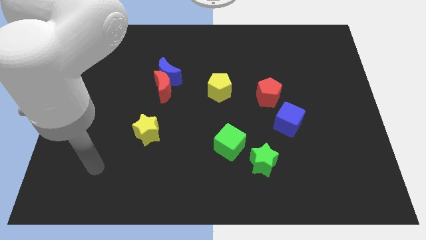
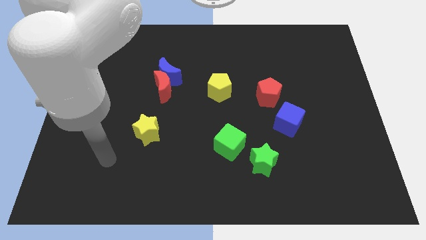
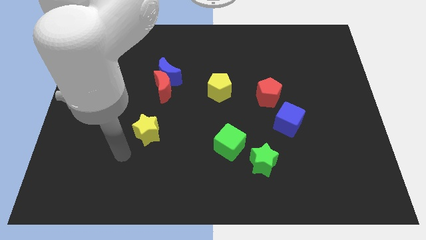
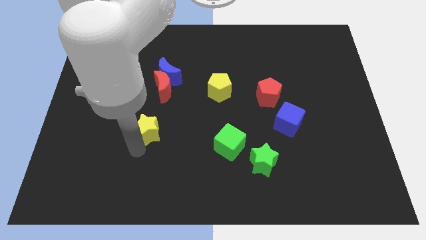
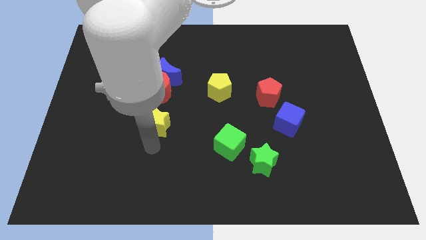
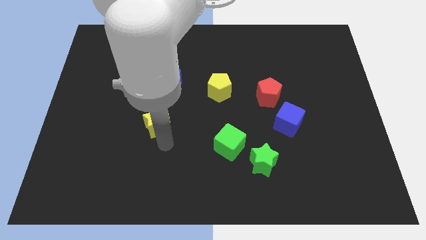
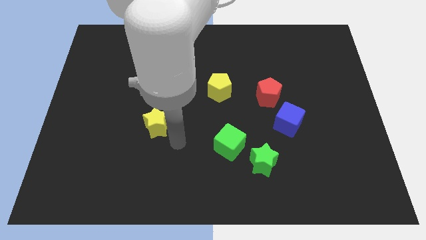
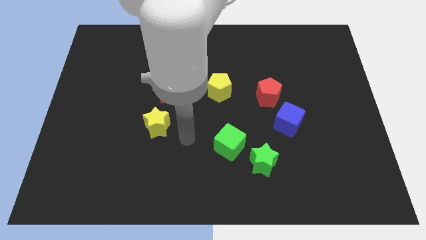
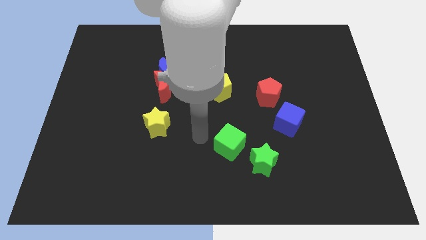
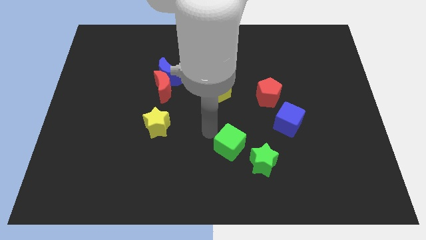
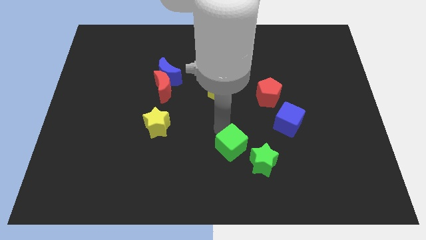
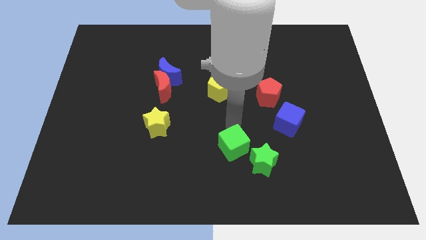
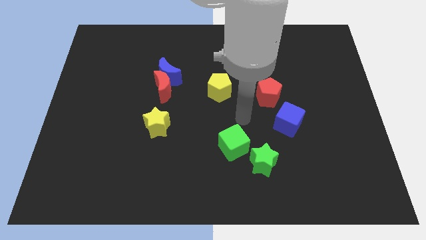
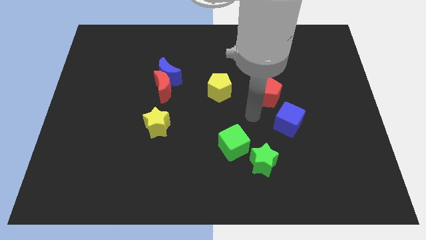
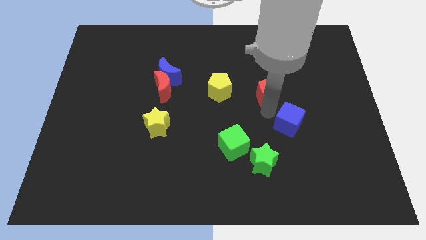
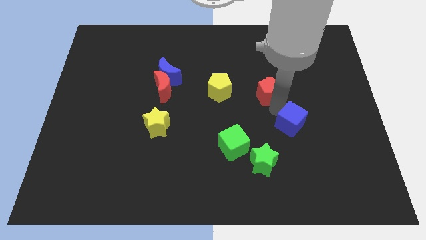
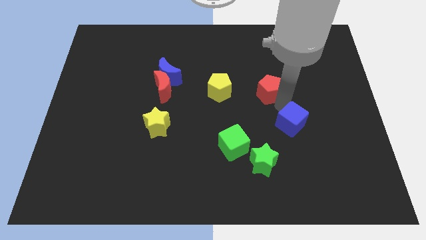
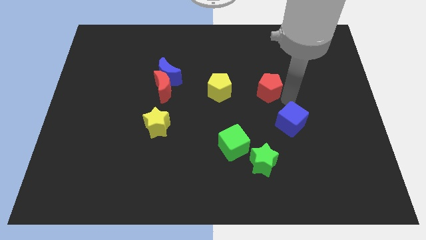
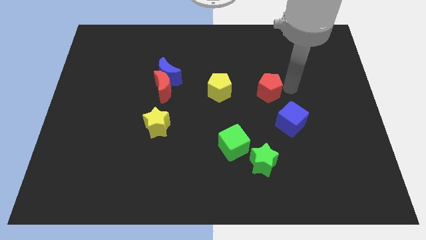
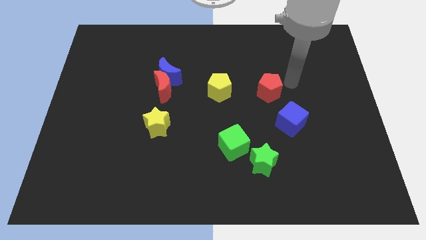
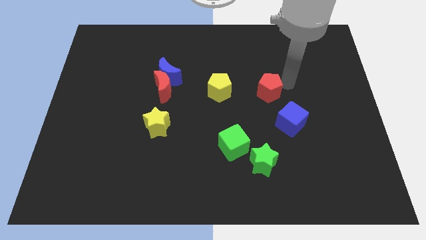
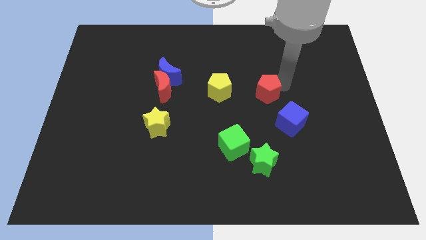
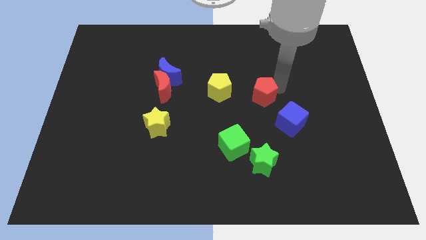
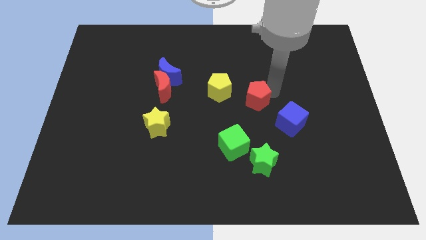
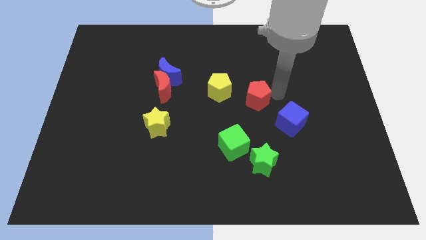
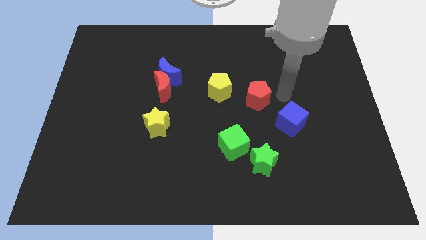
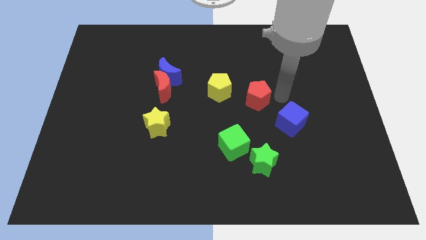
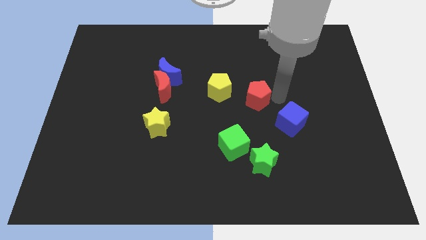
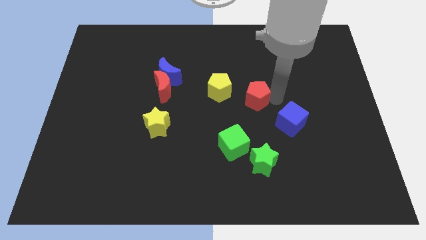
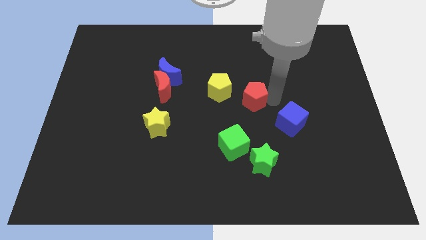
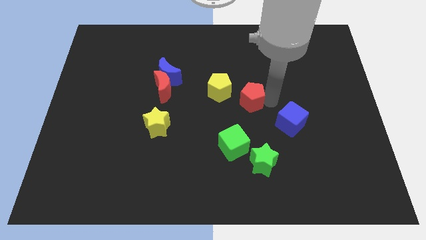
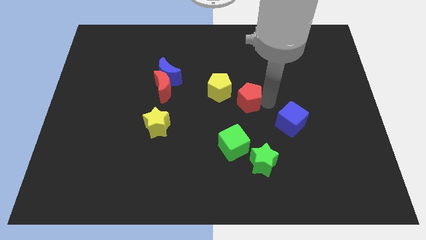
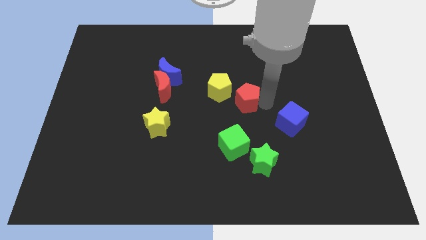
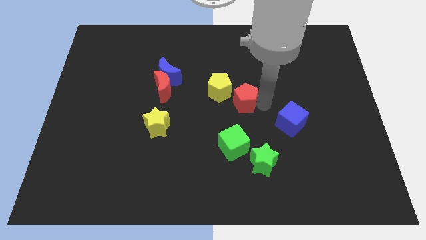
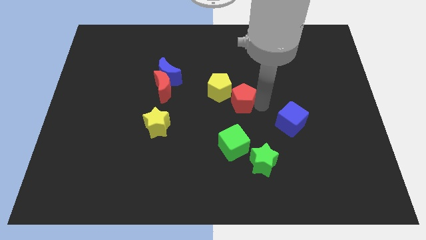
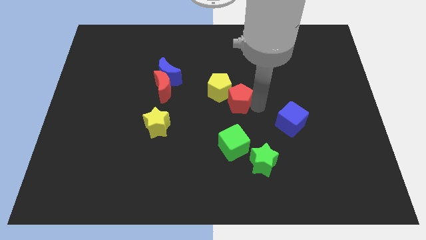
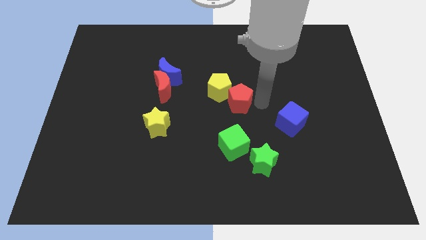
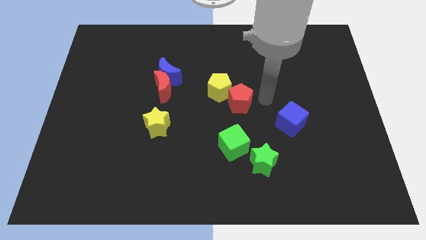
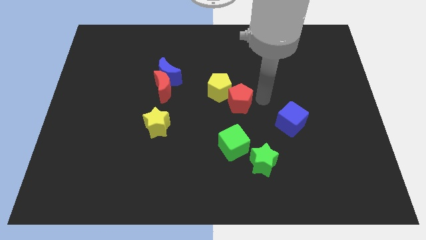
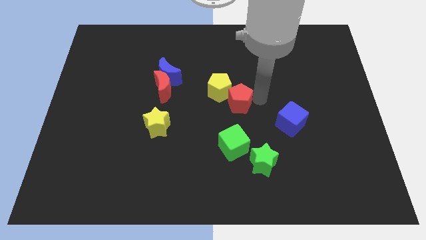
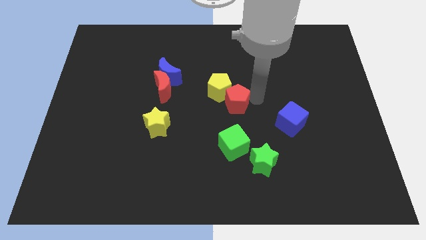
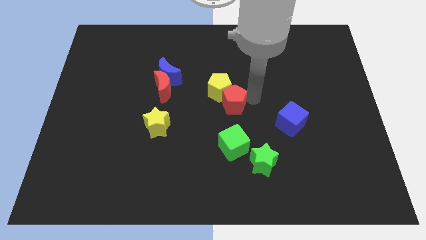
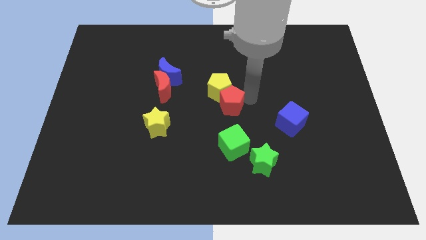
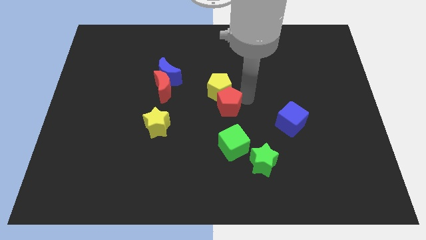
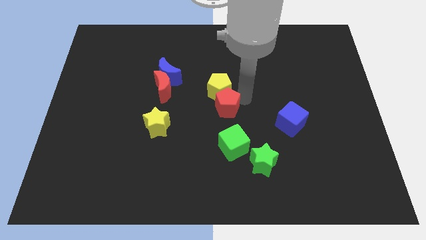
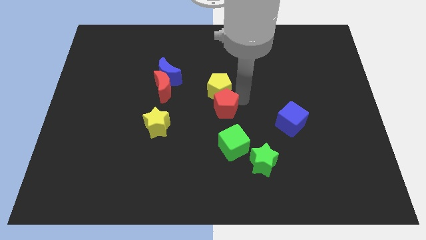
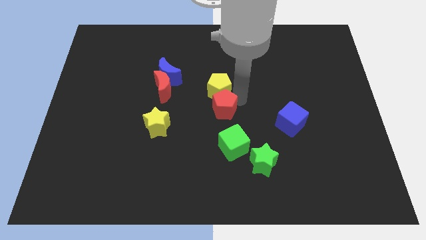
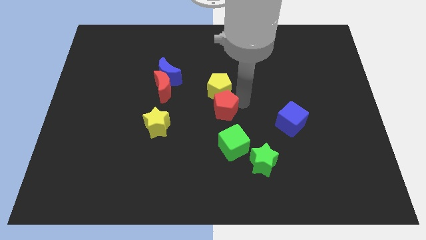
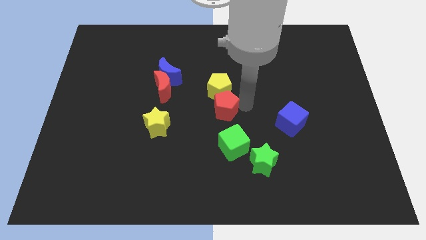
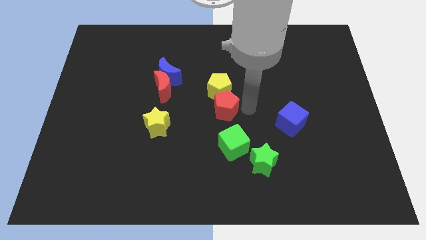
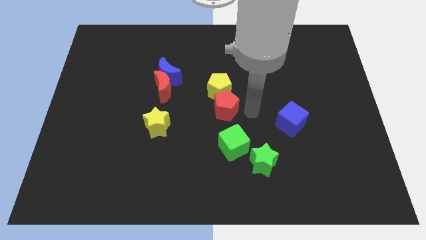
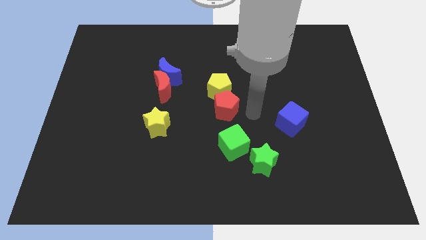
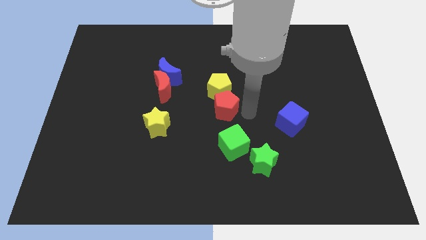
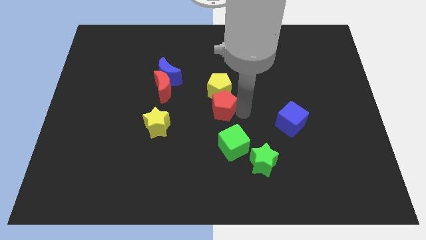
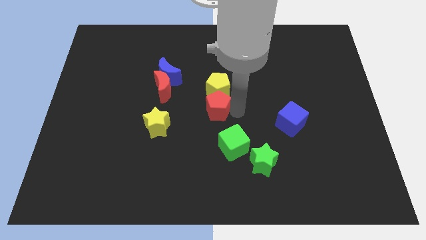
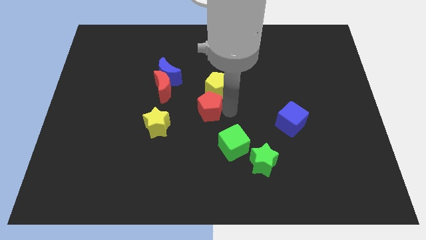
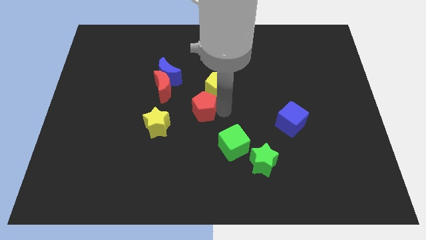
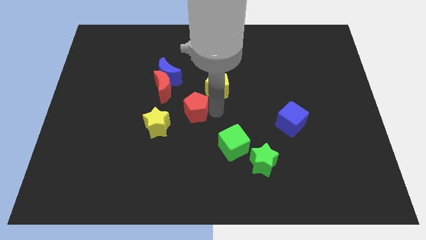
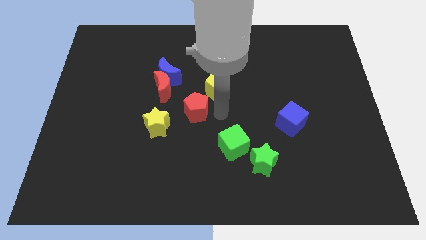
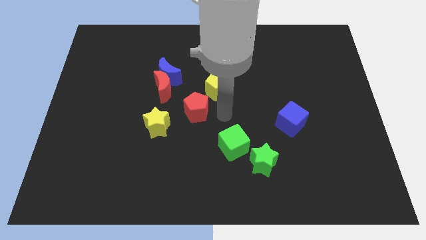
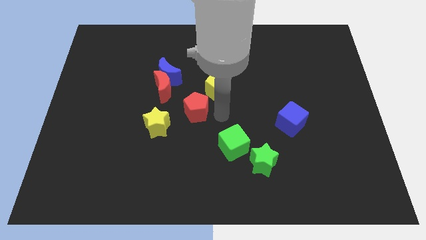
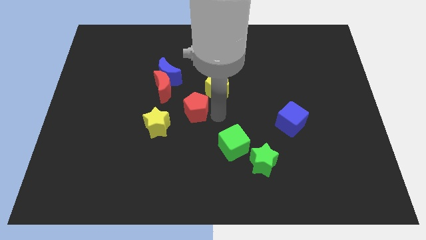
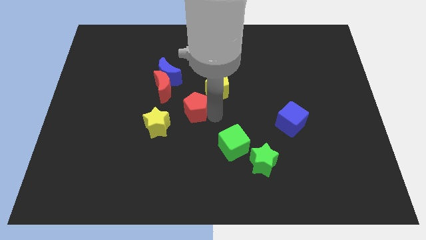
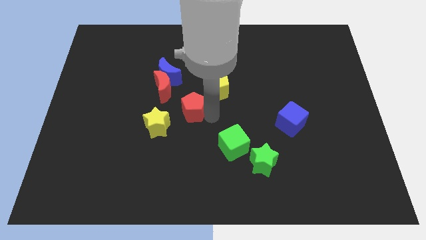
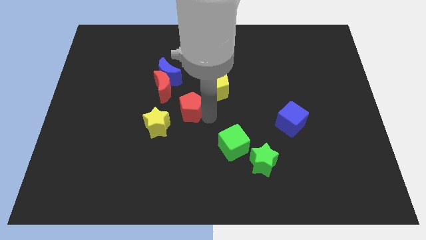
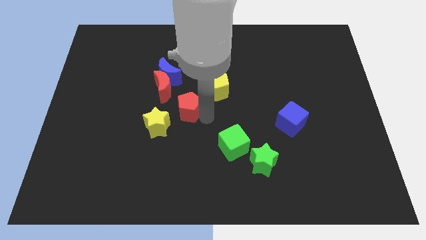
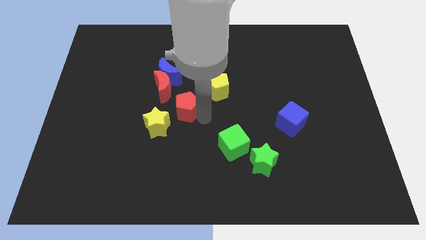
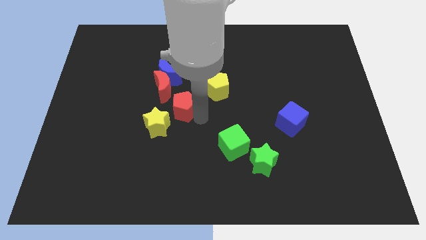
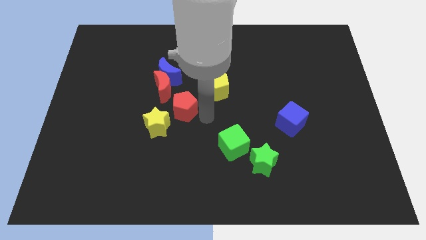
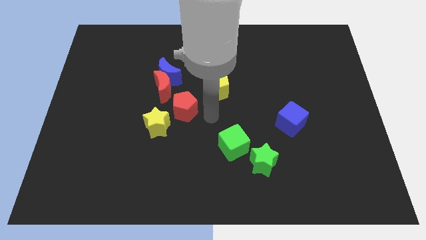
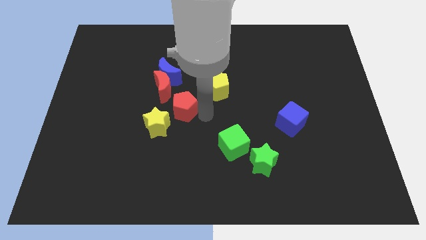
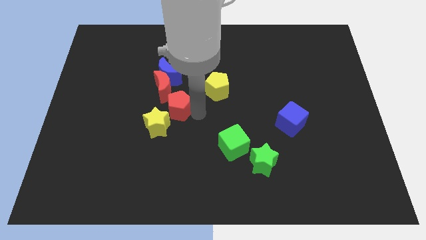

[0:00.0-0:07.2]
move the red pentagon to the left

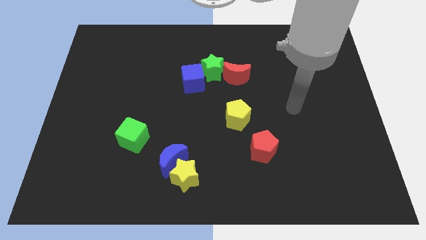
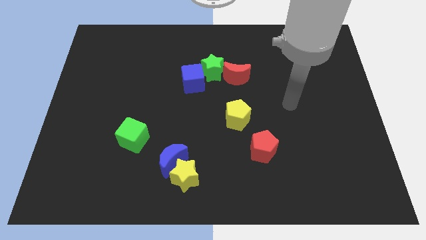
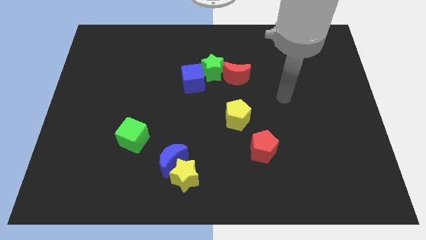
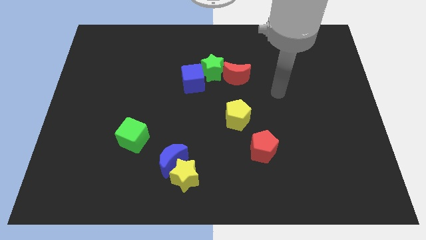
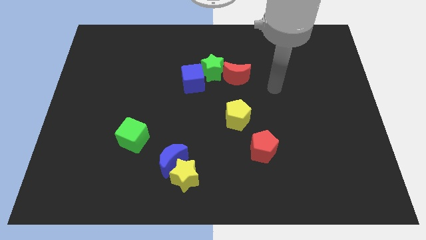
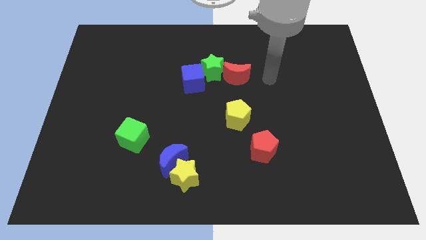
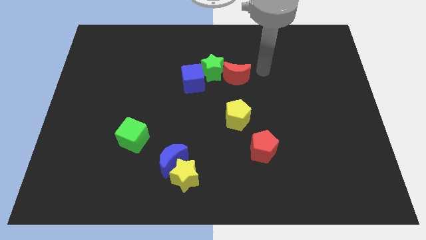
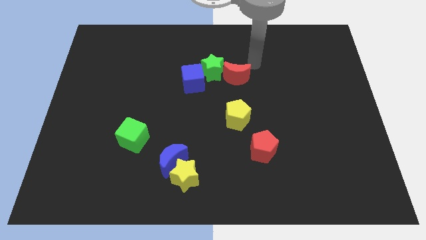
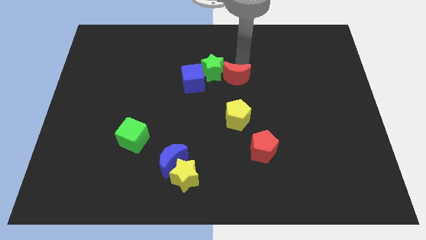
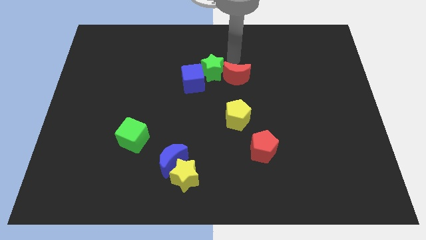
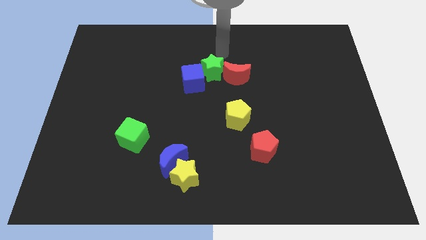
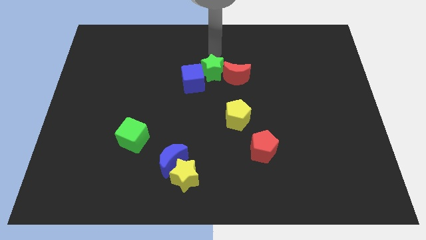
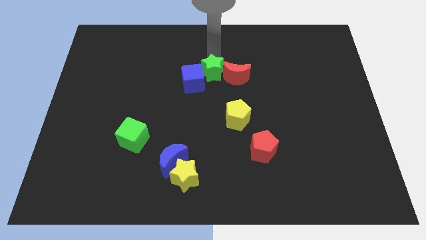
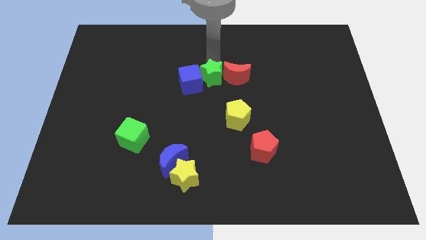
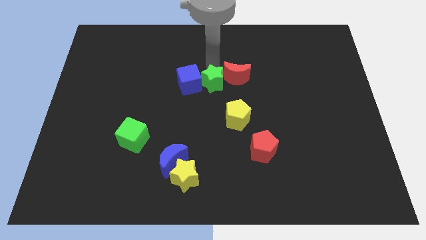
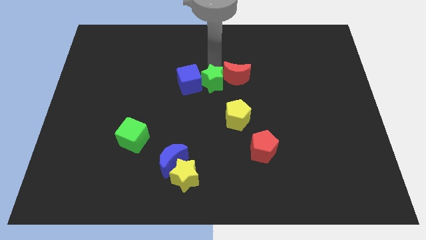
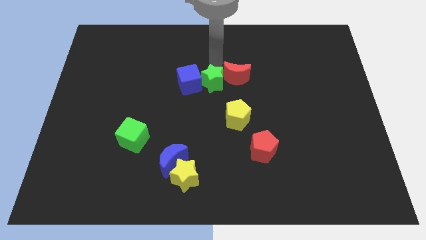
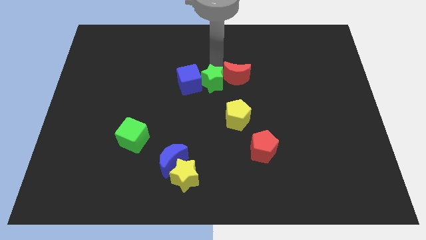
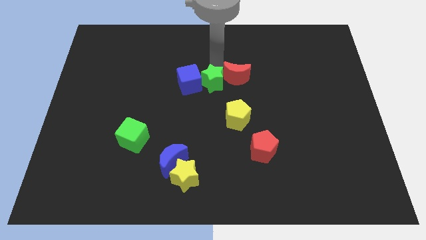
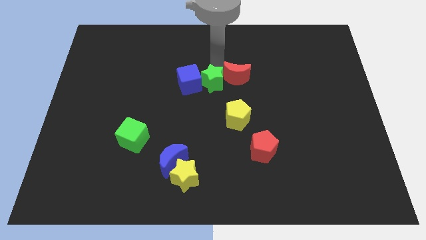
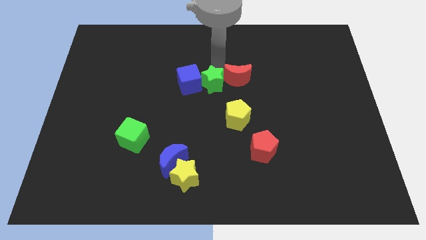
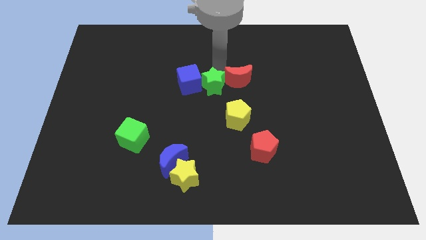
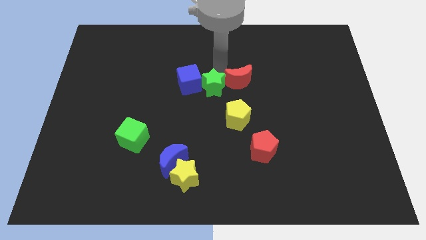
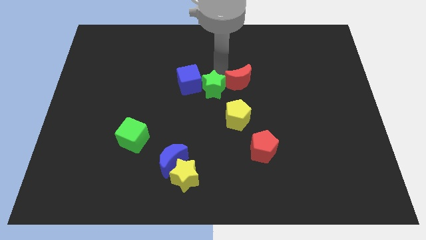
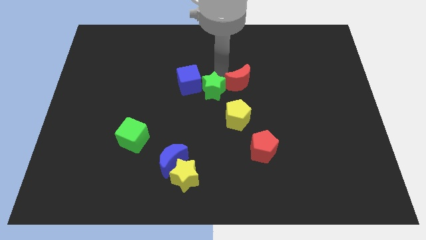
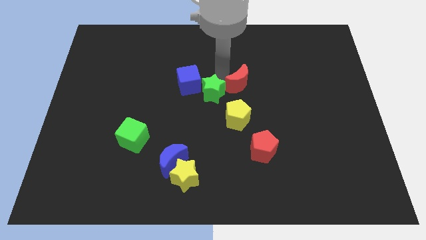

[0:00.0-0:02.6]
slightly push the green star down
